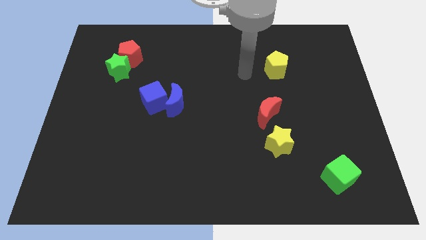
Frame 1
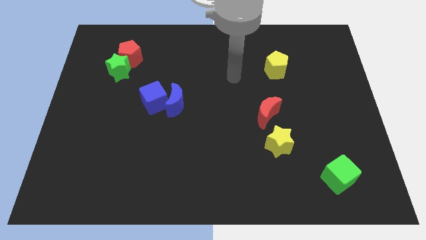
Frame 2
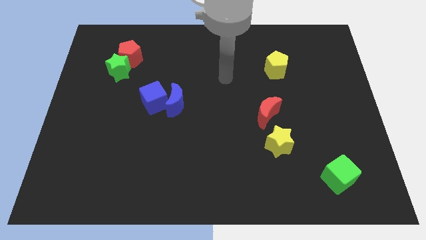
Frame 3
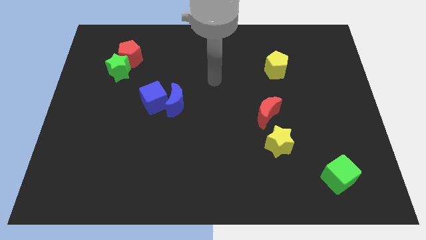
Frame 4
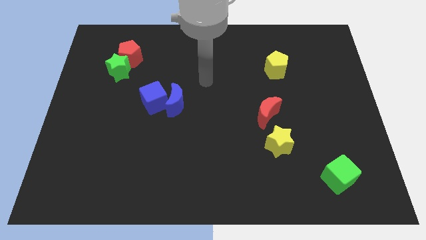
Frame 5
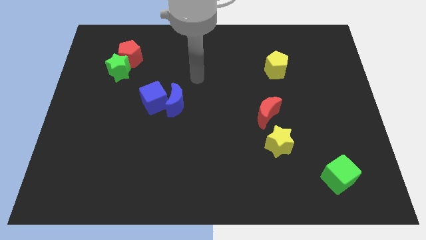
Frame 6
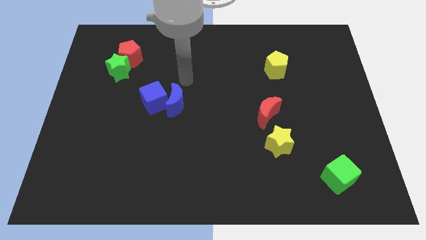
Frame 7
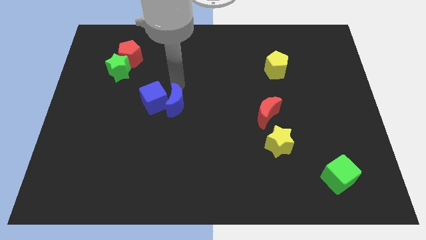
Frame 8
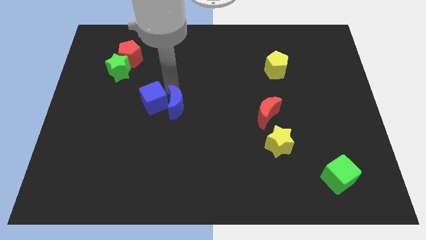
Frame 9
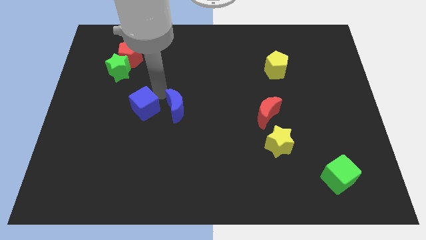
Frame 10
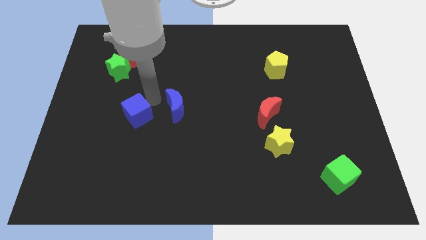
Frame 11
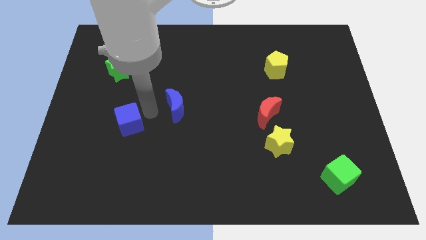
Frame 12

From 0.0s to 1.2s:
separate the blue moon from the blue cube

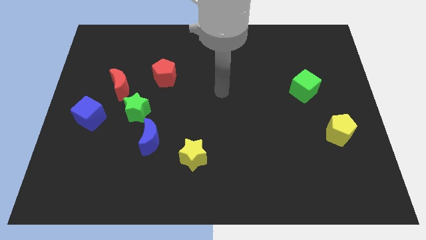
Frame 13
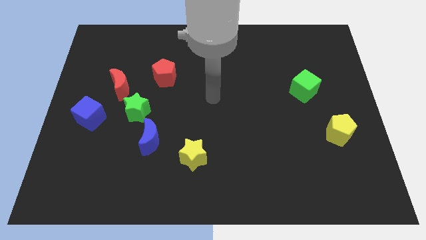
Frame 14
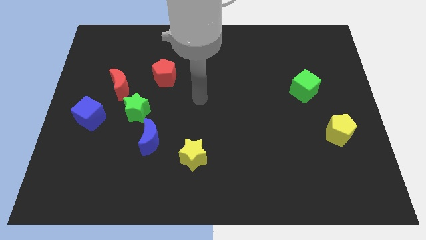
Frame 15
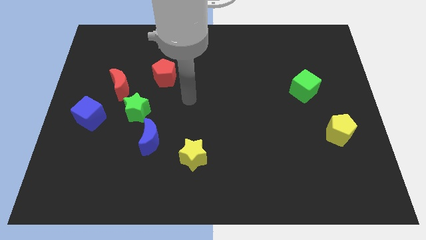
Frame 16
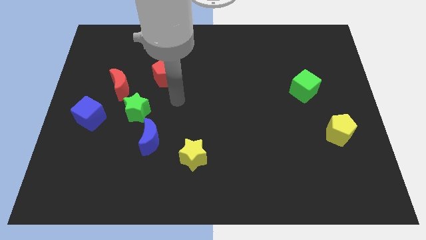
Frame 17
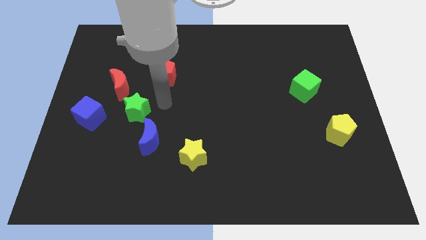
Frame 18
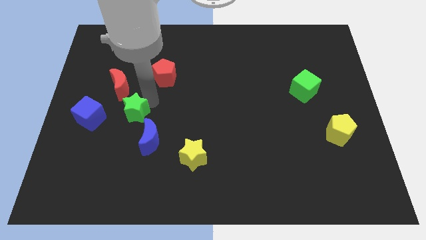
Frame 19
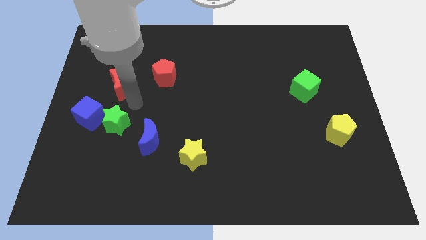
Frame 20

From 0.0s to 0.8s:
move the red moon away from the green star

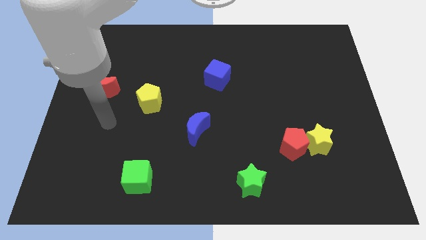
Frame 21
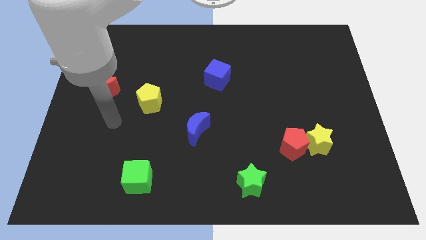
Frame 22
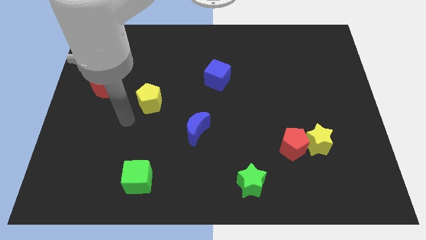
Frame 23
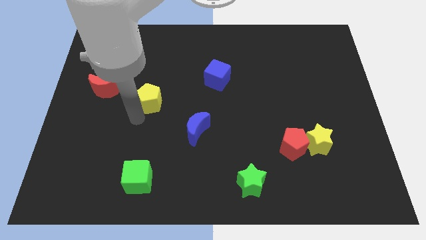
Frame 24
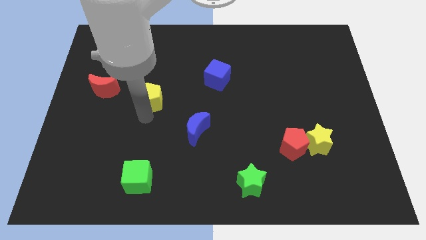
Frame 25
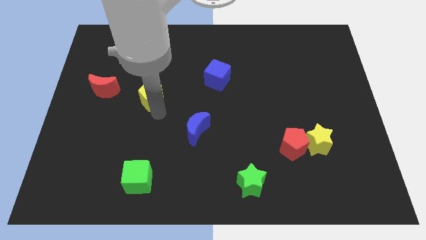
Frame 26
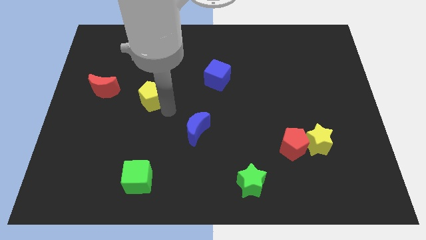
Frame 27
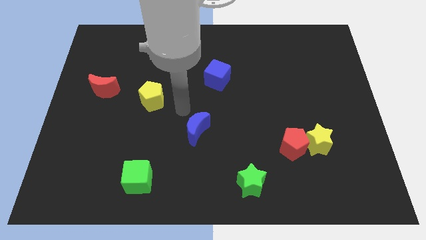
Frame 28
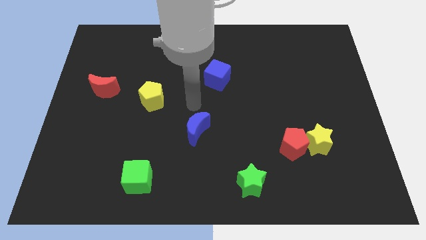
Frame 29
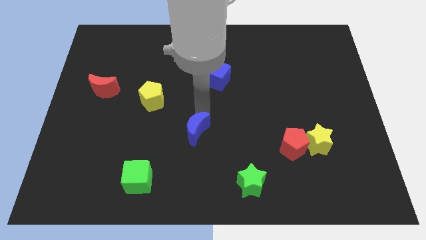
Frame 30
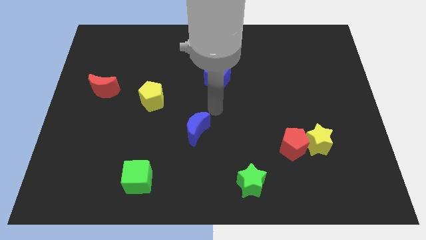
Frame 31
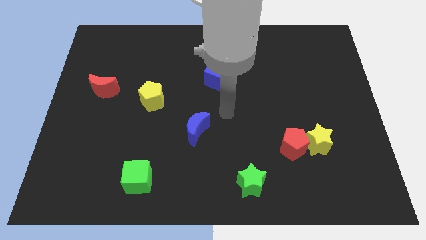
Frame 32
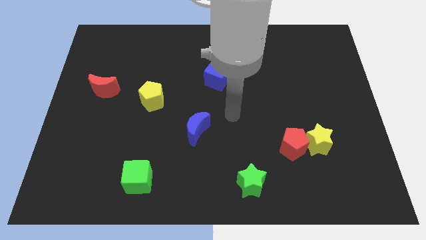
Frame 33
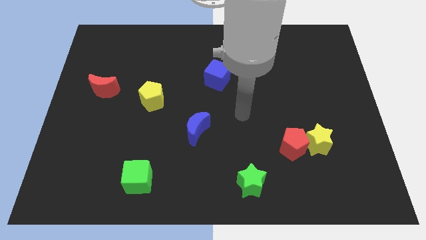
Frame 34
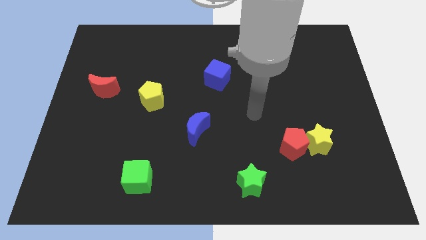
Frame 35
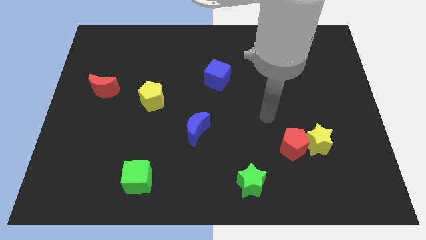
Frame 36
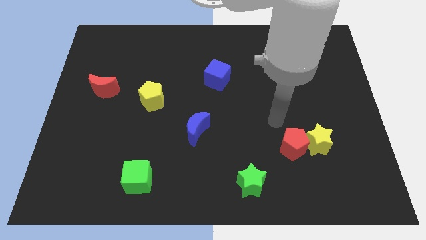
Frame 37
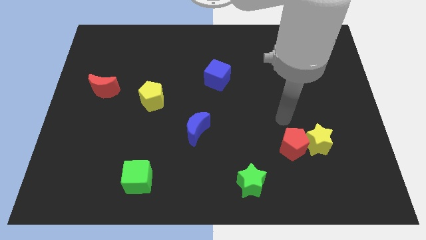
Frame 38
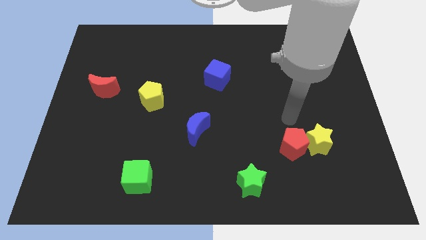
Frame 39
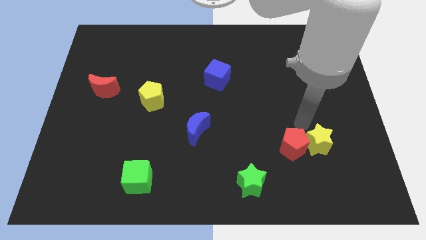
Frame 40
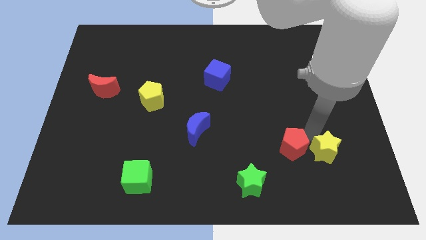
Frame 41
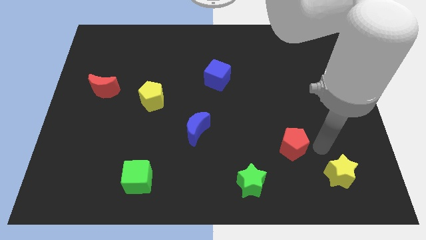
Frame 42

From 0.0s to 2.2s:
separate the red pentagon from the yellow star

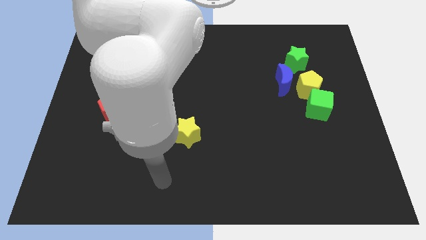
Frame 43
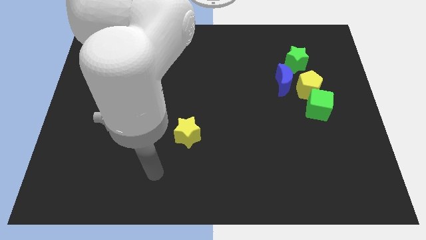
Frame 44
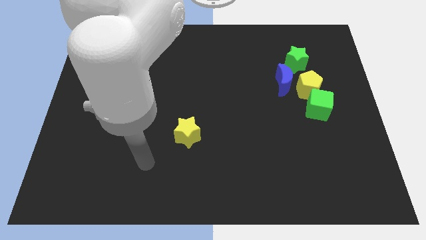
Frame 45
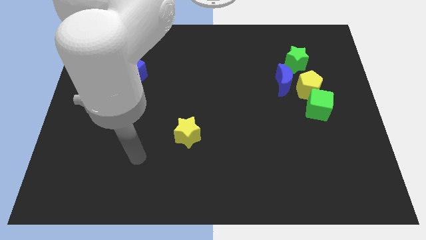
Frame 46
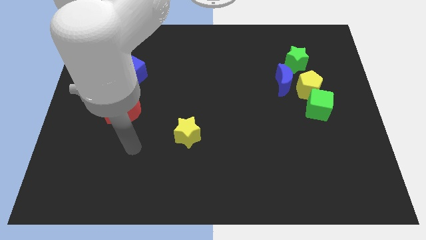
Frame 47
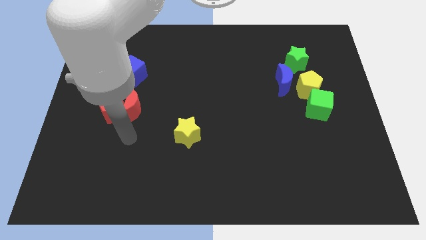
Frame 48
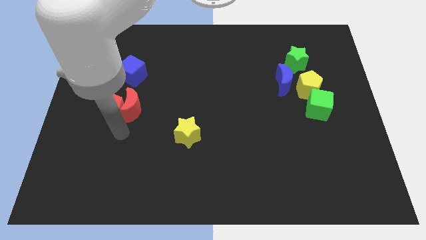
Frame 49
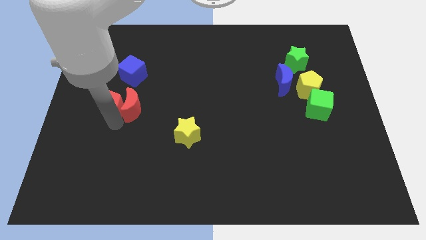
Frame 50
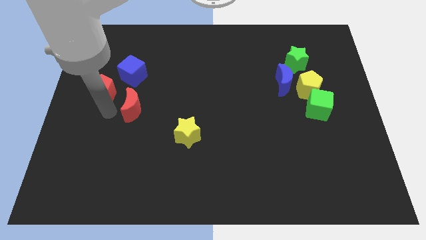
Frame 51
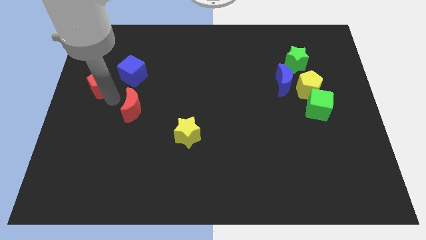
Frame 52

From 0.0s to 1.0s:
separate the red moon from the red pentagon

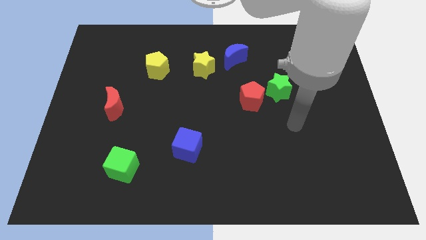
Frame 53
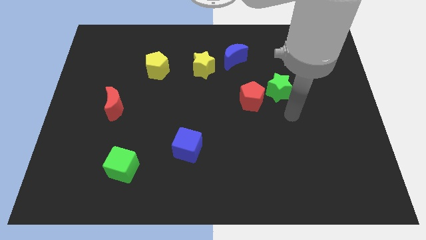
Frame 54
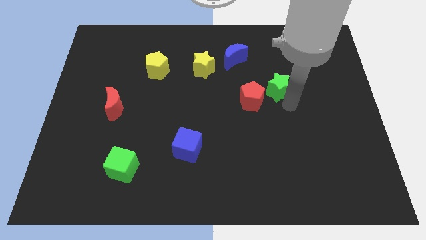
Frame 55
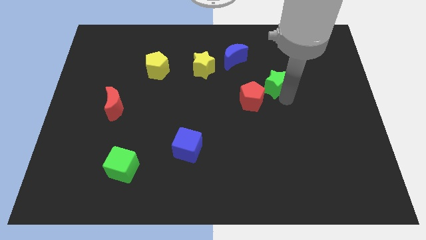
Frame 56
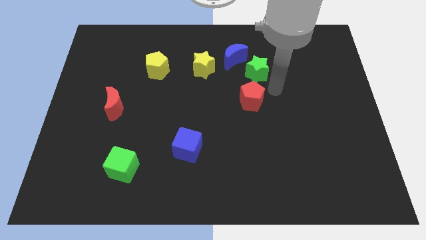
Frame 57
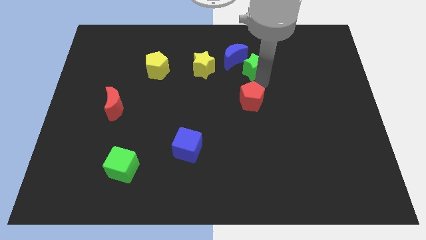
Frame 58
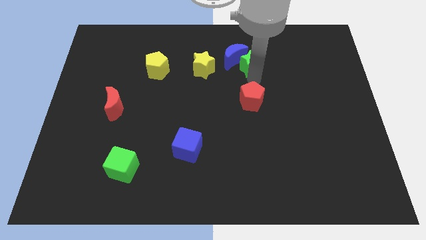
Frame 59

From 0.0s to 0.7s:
pull the red pentagon apart from the green star

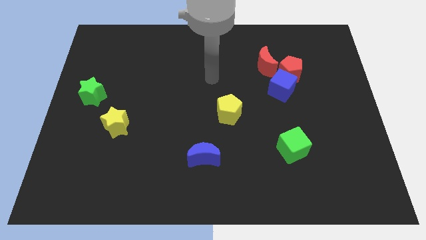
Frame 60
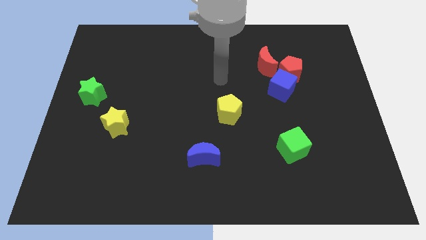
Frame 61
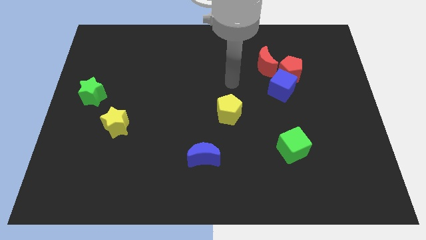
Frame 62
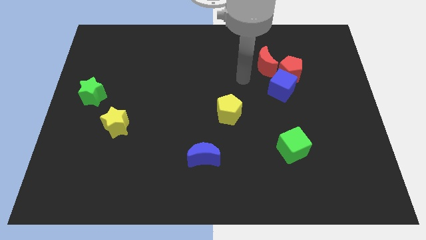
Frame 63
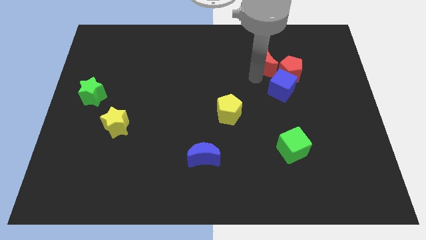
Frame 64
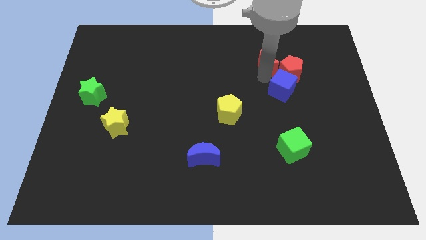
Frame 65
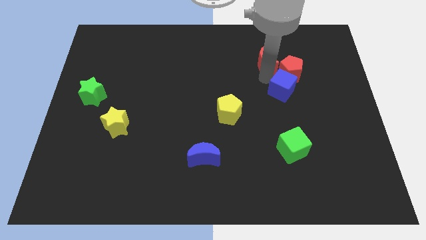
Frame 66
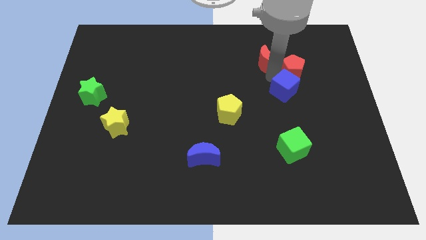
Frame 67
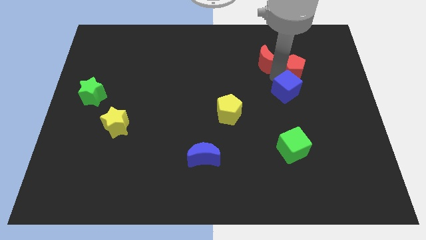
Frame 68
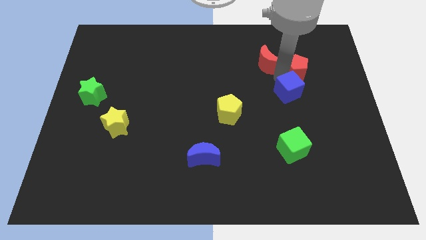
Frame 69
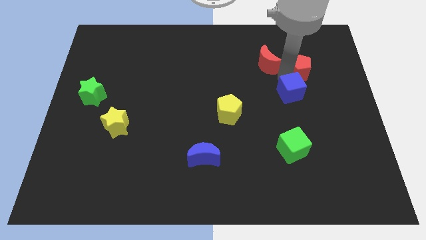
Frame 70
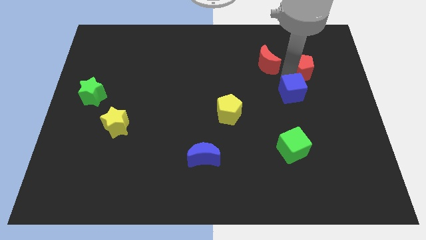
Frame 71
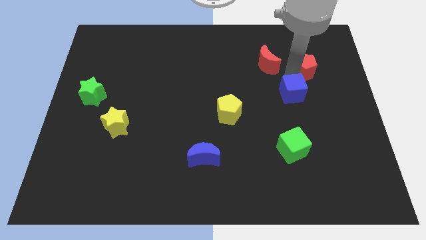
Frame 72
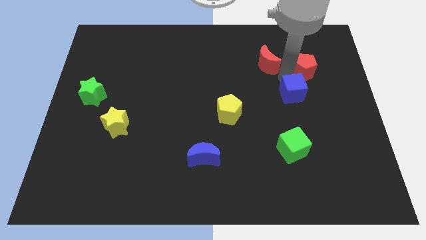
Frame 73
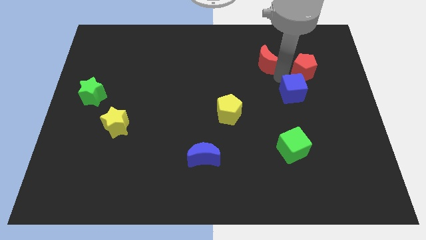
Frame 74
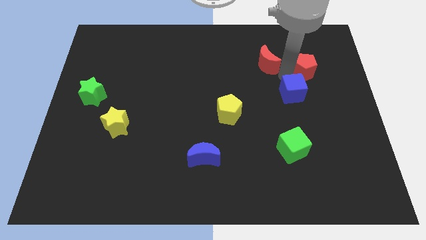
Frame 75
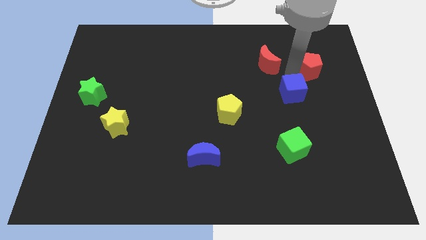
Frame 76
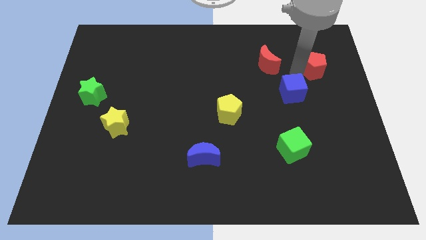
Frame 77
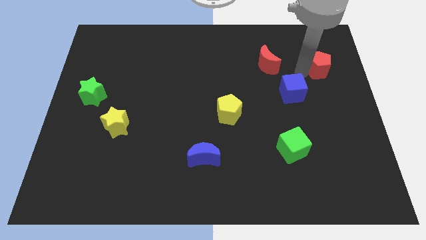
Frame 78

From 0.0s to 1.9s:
pull the red pentagon apart from the blue cube and red moon

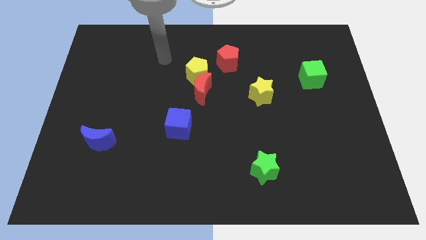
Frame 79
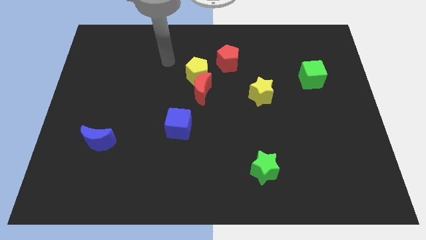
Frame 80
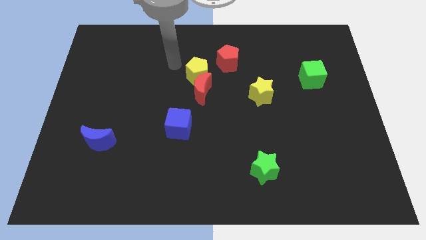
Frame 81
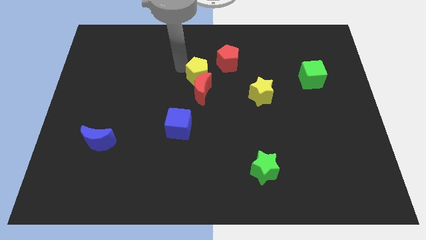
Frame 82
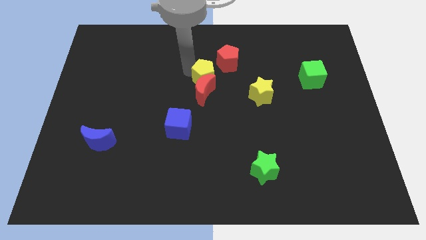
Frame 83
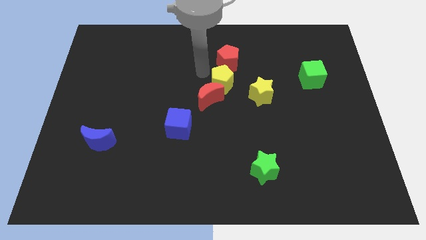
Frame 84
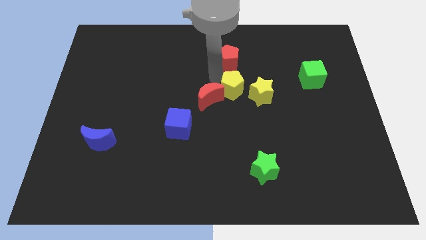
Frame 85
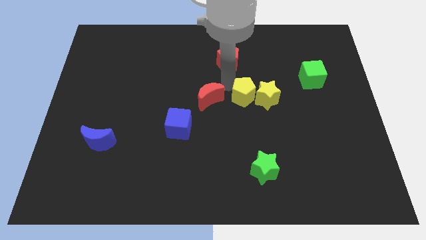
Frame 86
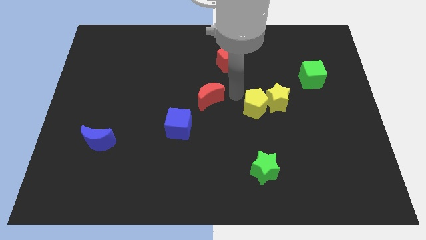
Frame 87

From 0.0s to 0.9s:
separate the red moon from the yellow pentagon

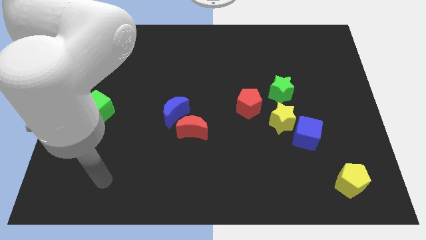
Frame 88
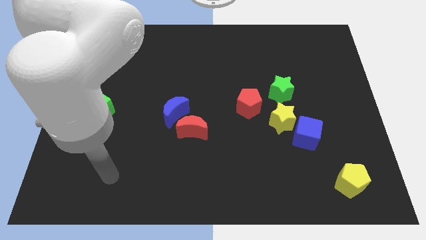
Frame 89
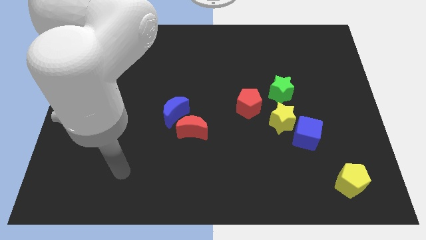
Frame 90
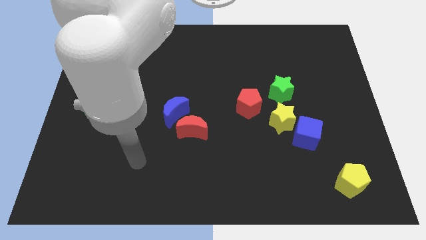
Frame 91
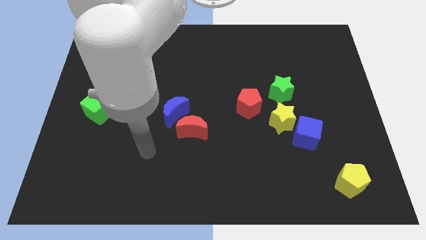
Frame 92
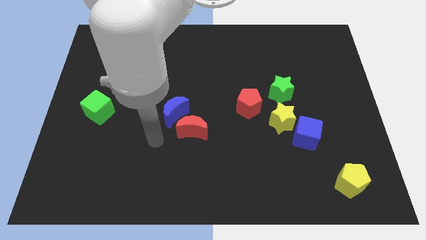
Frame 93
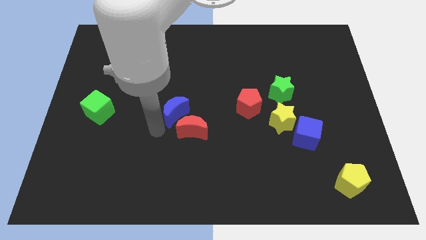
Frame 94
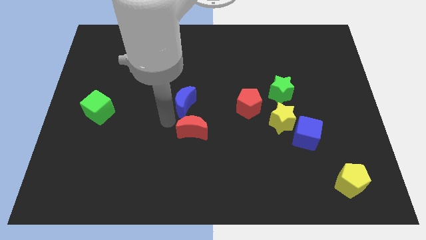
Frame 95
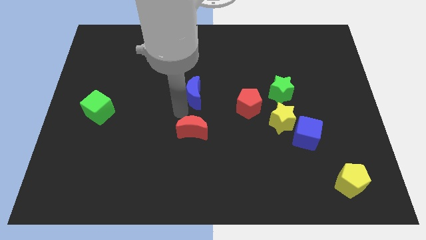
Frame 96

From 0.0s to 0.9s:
separate the red moon from the blue moon
